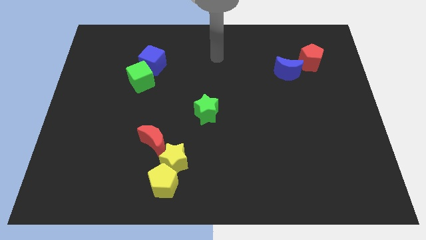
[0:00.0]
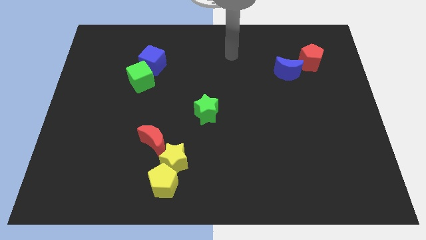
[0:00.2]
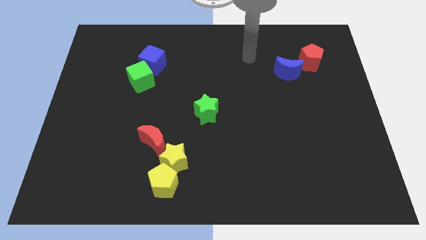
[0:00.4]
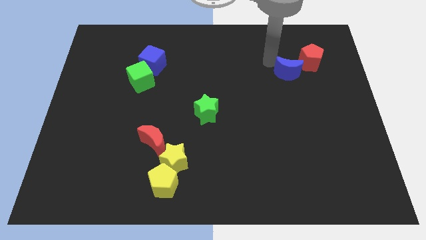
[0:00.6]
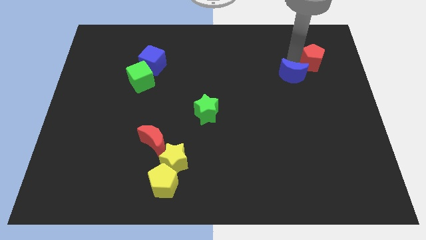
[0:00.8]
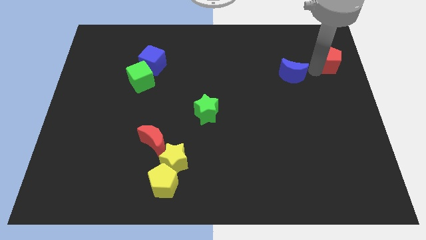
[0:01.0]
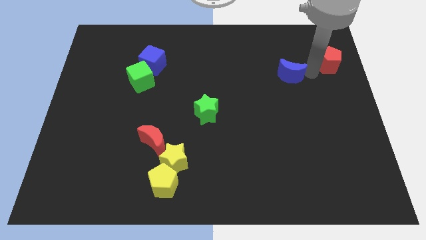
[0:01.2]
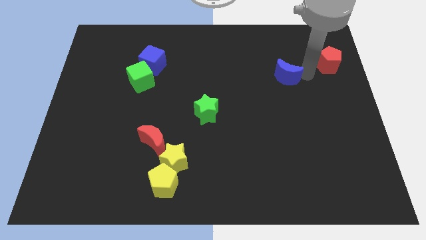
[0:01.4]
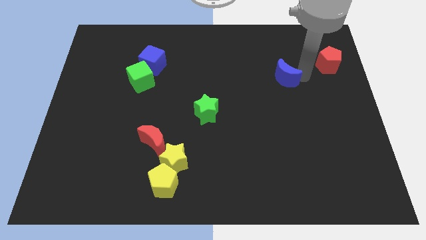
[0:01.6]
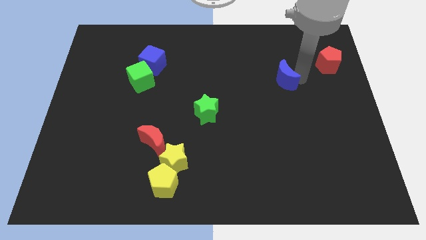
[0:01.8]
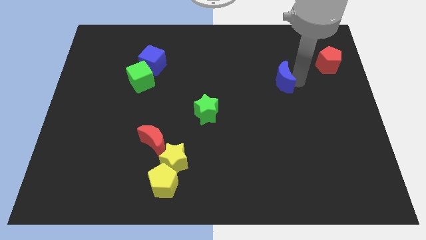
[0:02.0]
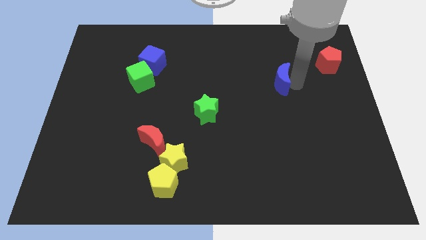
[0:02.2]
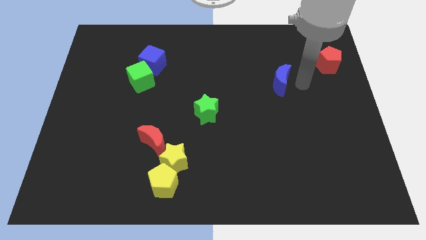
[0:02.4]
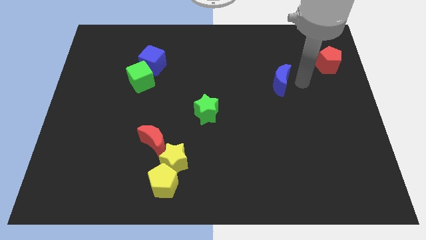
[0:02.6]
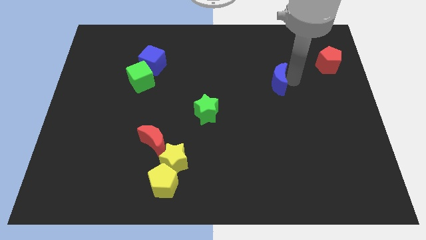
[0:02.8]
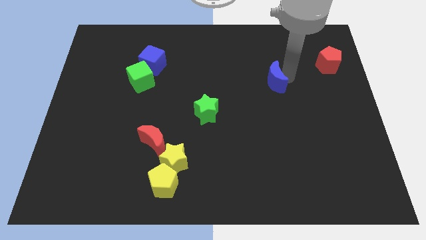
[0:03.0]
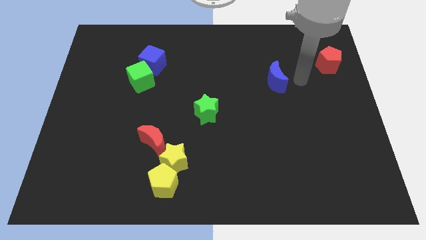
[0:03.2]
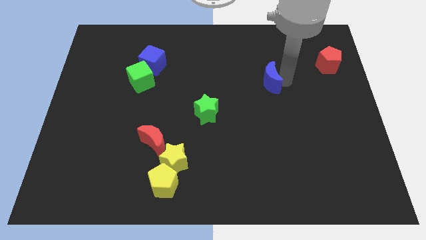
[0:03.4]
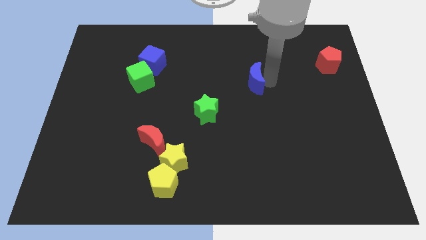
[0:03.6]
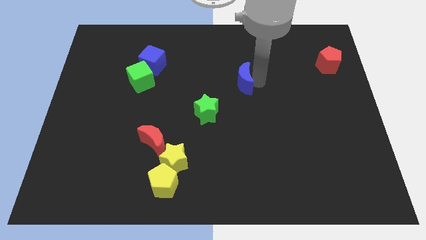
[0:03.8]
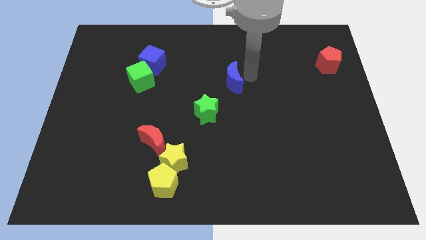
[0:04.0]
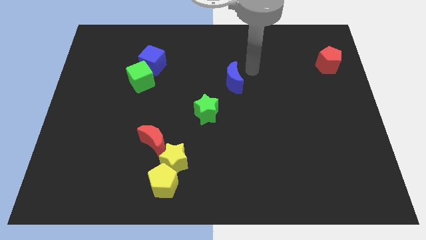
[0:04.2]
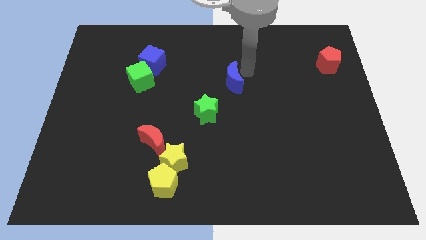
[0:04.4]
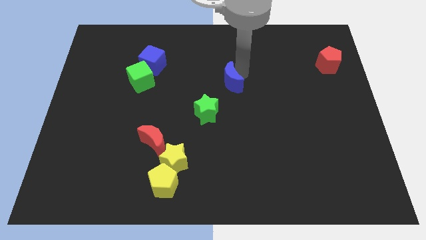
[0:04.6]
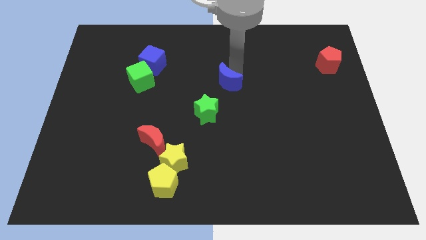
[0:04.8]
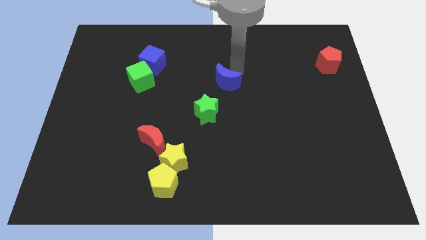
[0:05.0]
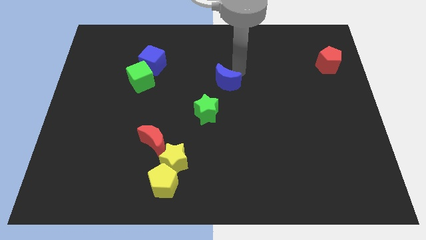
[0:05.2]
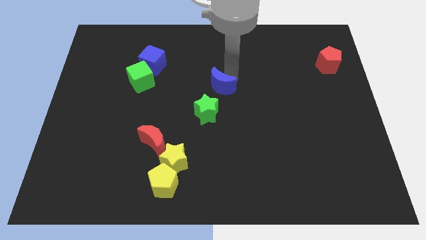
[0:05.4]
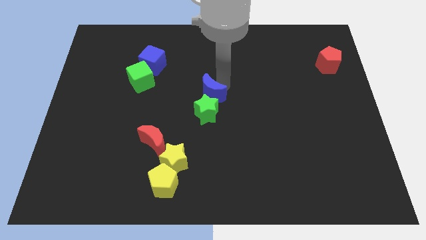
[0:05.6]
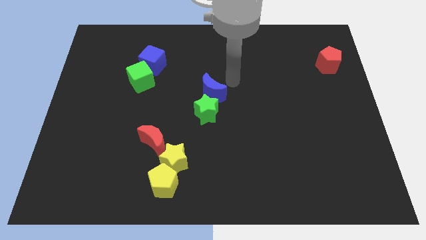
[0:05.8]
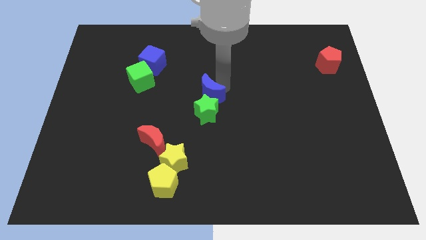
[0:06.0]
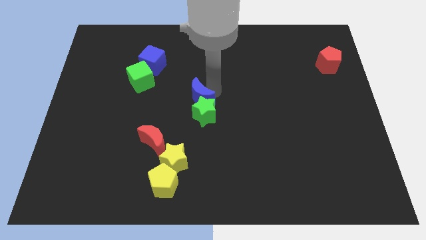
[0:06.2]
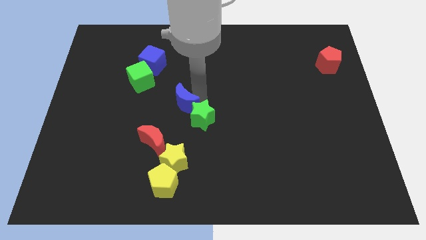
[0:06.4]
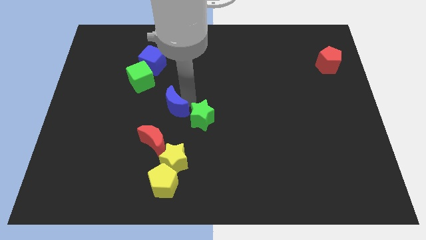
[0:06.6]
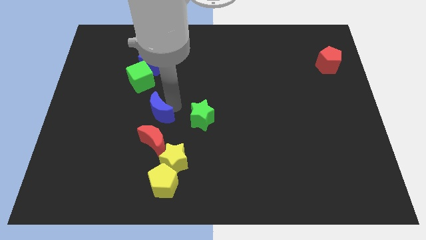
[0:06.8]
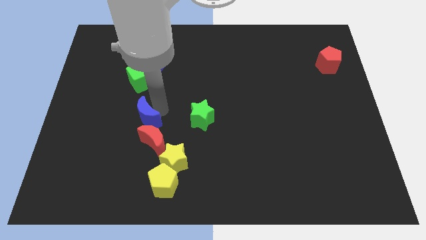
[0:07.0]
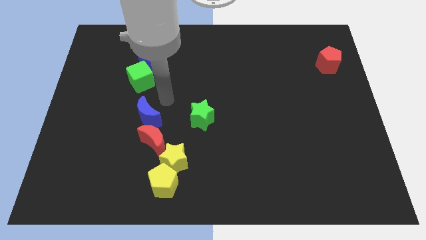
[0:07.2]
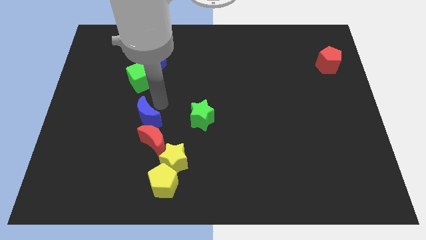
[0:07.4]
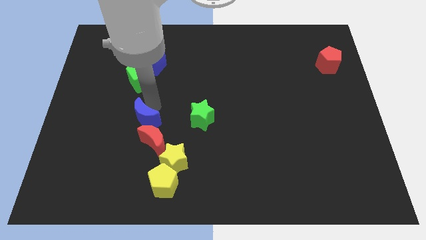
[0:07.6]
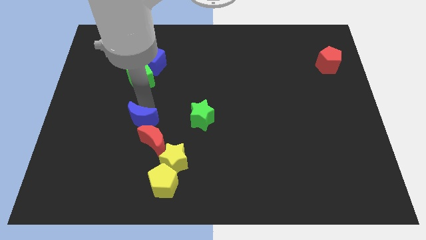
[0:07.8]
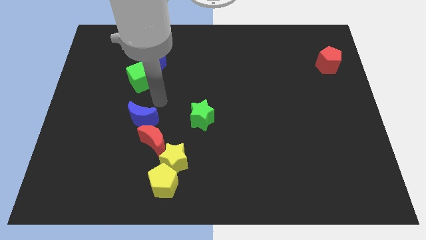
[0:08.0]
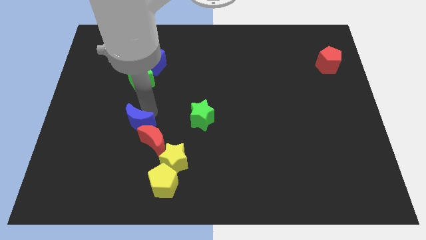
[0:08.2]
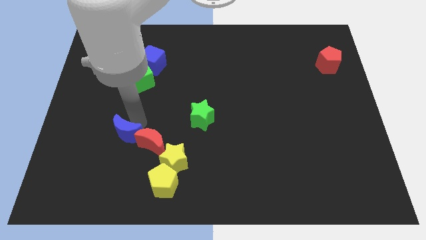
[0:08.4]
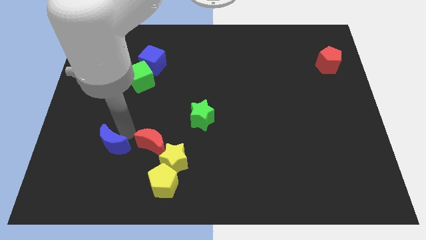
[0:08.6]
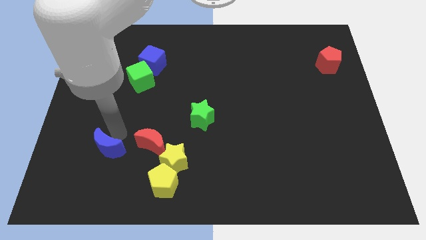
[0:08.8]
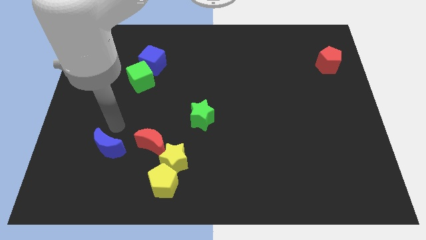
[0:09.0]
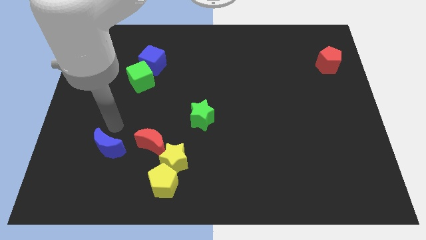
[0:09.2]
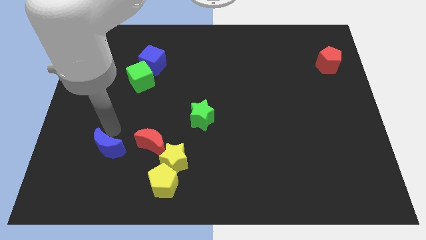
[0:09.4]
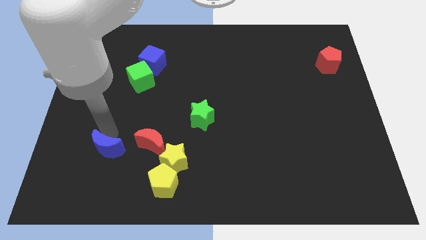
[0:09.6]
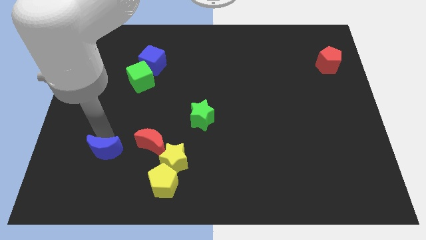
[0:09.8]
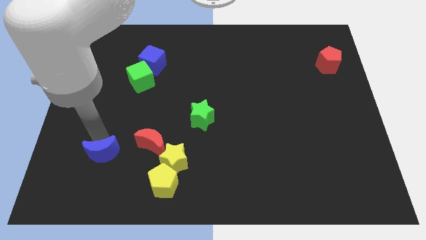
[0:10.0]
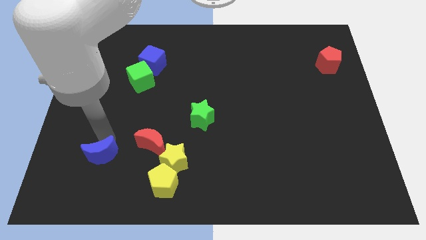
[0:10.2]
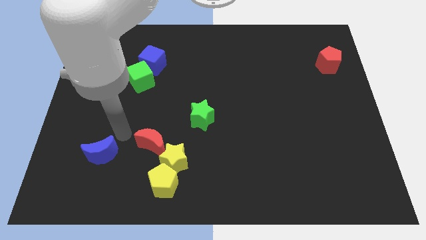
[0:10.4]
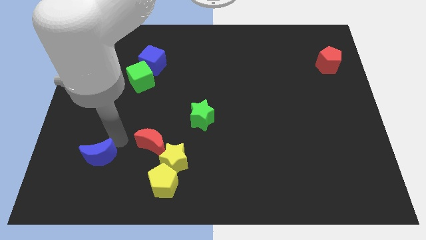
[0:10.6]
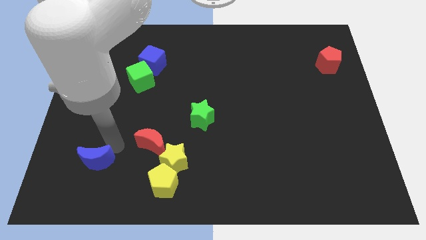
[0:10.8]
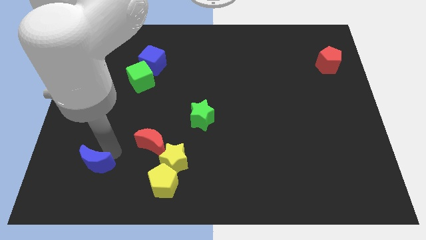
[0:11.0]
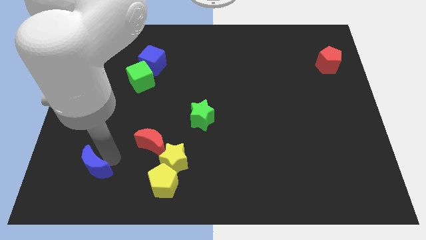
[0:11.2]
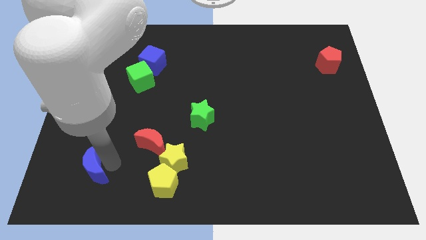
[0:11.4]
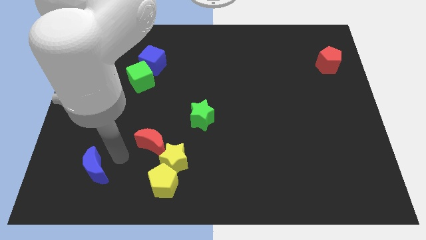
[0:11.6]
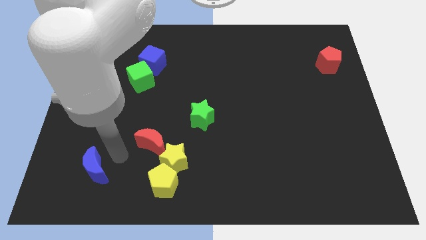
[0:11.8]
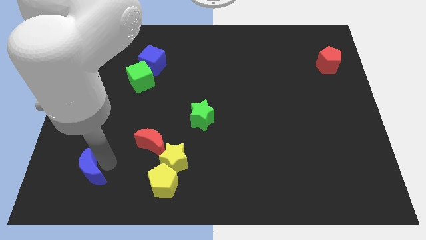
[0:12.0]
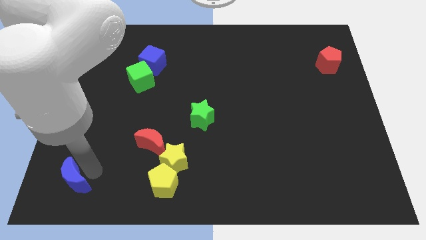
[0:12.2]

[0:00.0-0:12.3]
push the blue moon to the bottom left

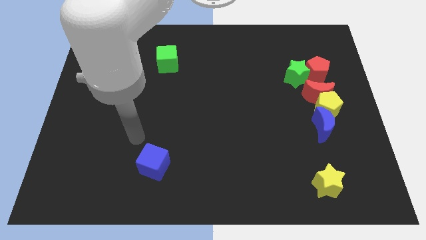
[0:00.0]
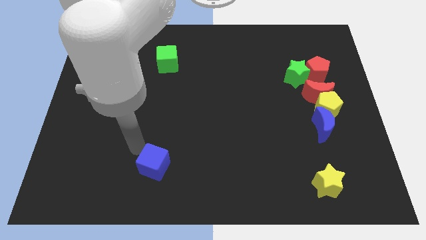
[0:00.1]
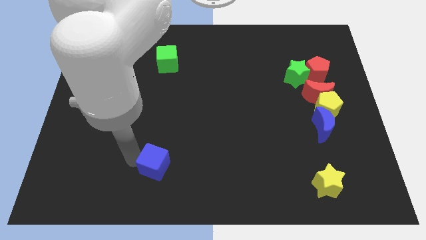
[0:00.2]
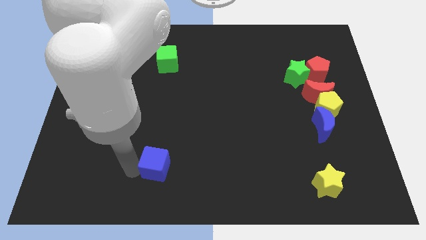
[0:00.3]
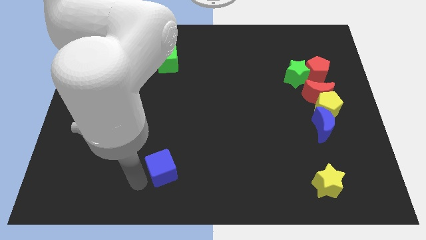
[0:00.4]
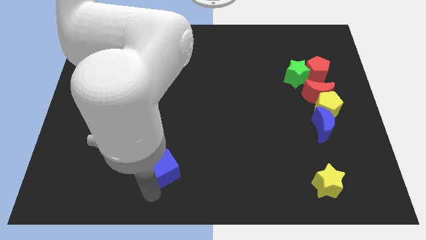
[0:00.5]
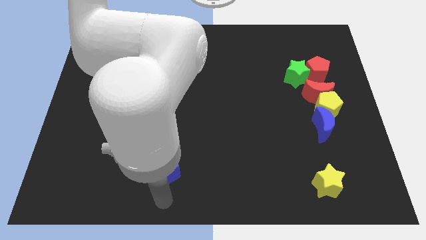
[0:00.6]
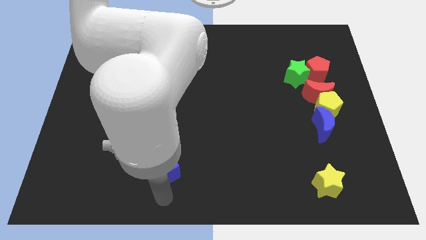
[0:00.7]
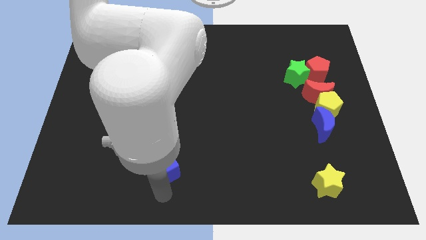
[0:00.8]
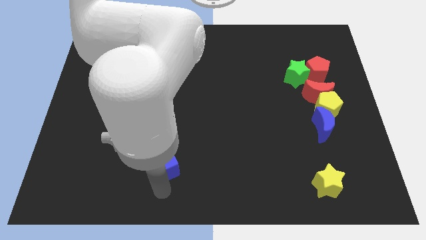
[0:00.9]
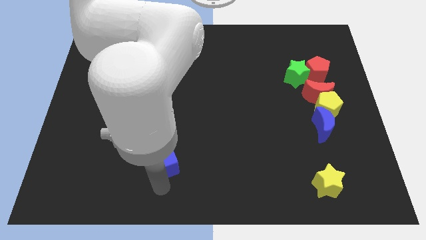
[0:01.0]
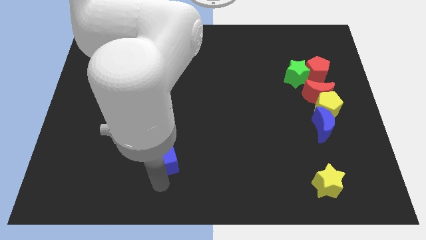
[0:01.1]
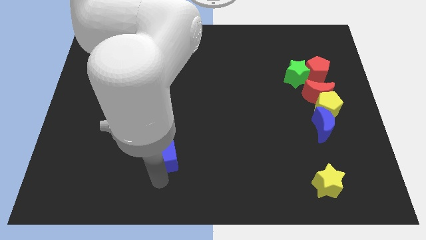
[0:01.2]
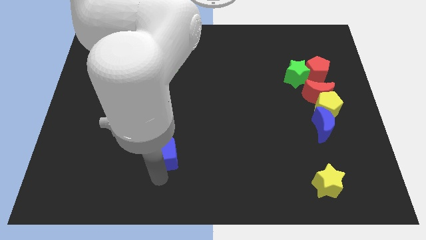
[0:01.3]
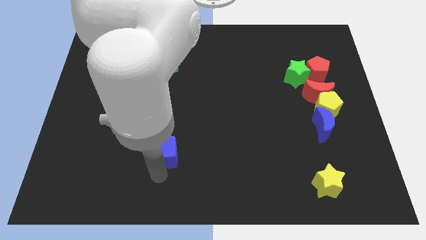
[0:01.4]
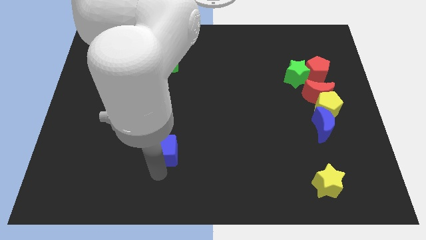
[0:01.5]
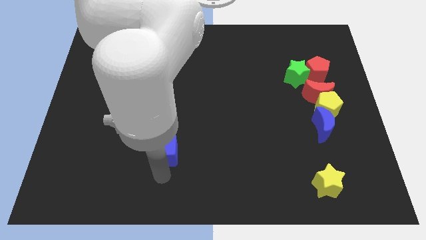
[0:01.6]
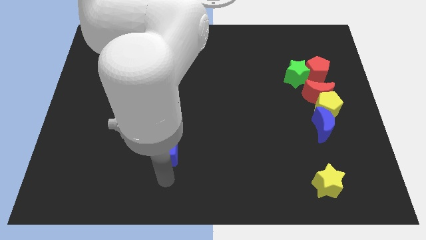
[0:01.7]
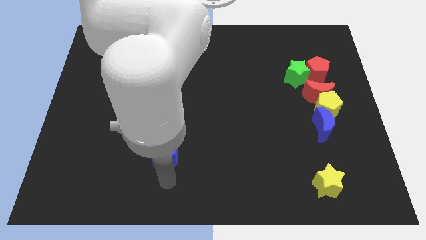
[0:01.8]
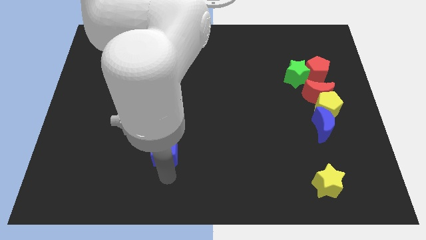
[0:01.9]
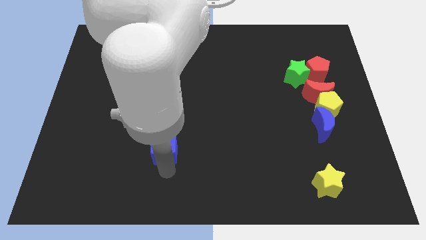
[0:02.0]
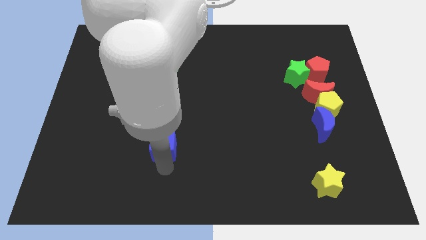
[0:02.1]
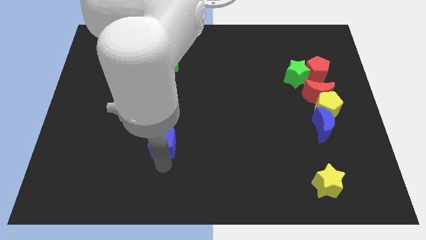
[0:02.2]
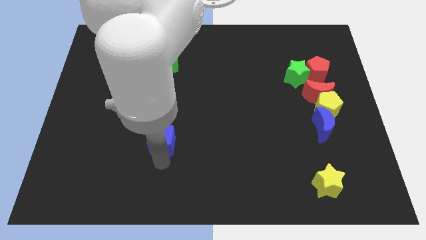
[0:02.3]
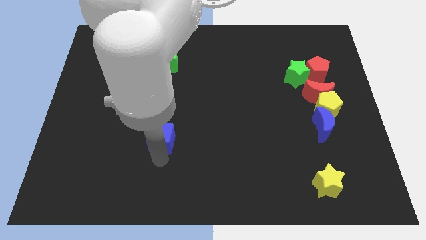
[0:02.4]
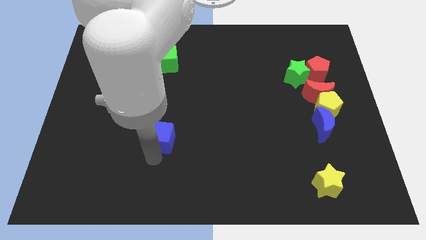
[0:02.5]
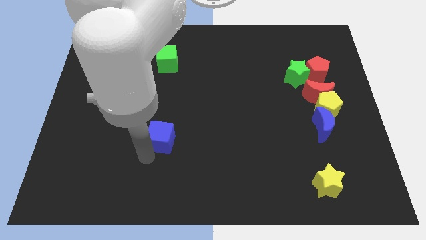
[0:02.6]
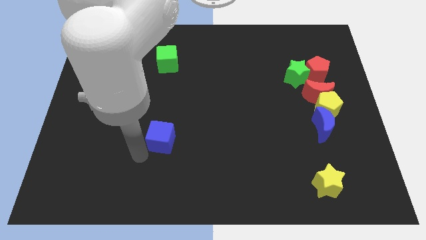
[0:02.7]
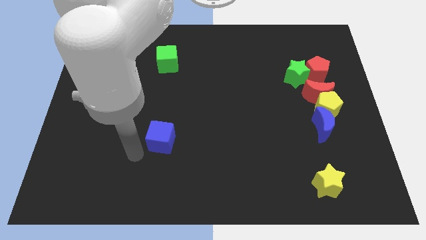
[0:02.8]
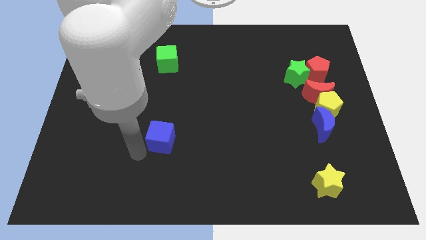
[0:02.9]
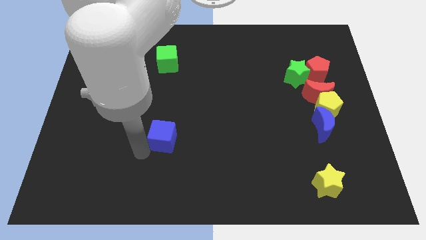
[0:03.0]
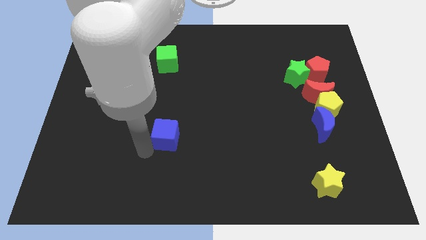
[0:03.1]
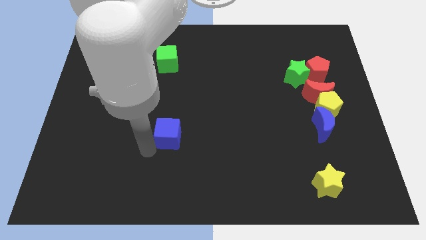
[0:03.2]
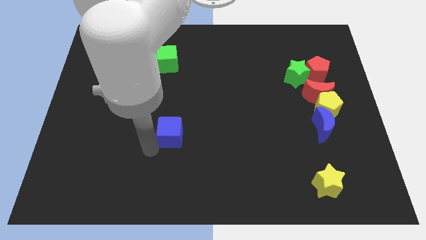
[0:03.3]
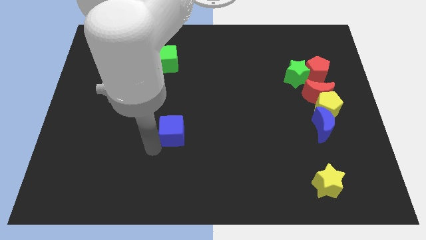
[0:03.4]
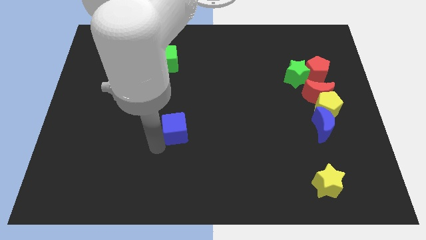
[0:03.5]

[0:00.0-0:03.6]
move the blue cube to the center
